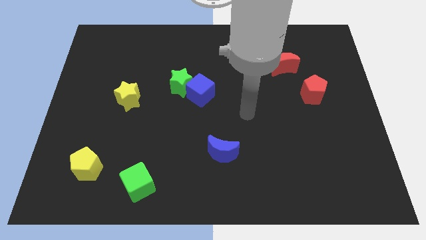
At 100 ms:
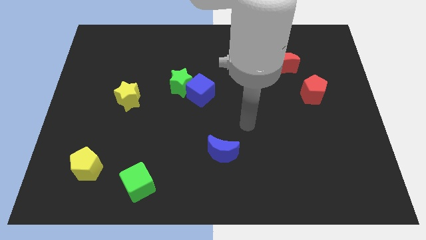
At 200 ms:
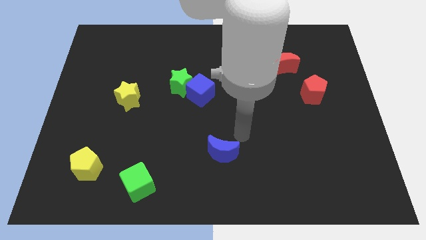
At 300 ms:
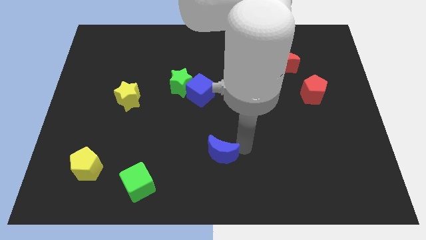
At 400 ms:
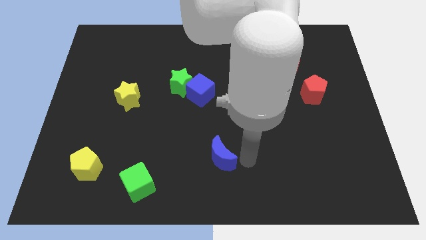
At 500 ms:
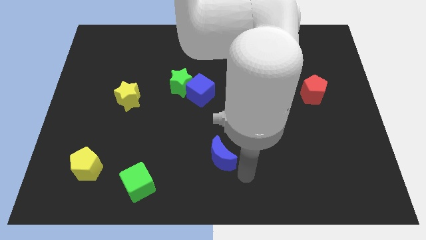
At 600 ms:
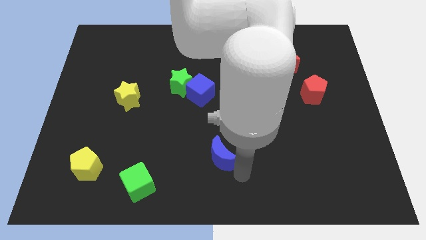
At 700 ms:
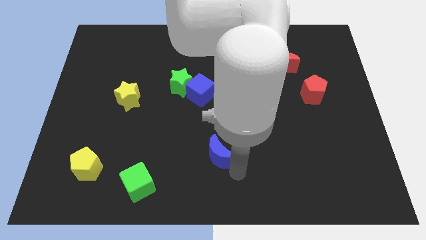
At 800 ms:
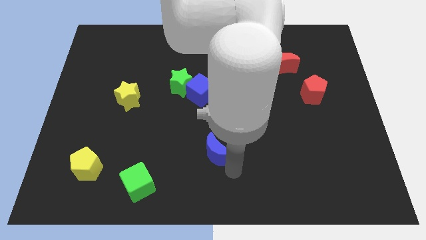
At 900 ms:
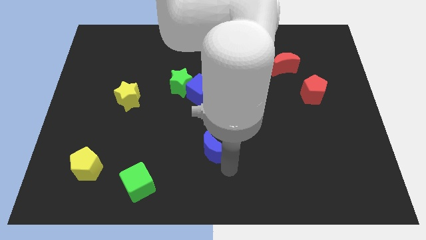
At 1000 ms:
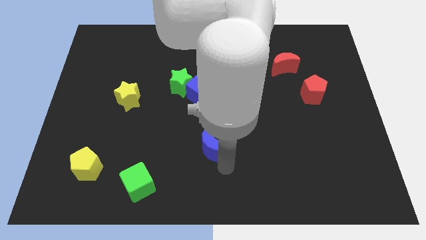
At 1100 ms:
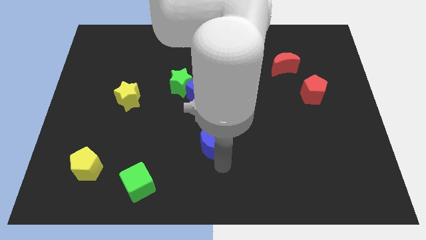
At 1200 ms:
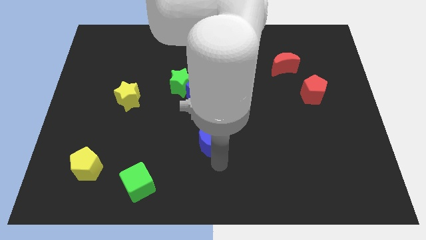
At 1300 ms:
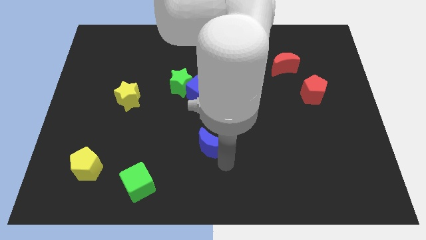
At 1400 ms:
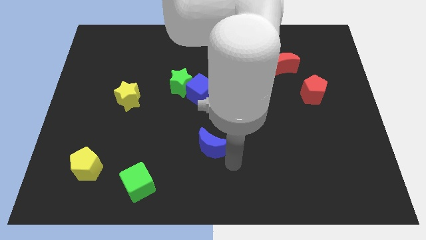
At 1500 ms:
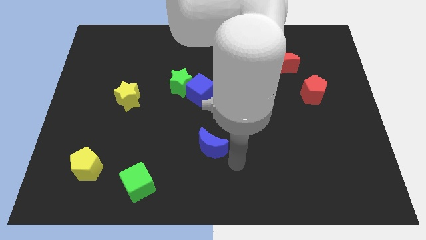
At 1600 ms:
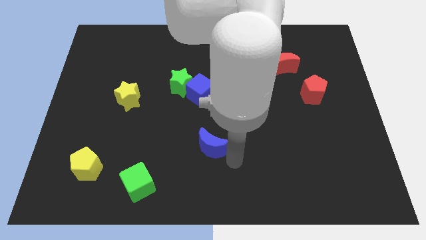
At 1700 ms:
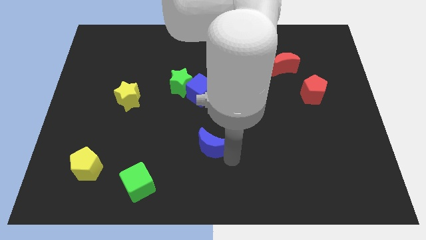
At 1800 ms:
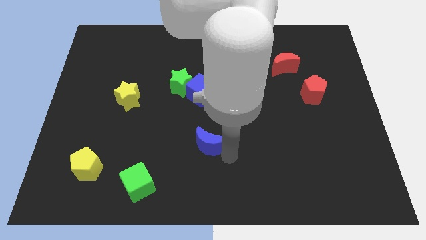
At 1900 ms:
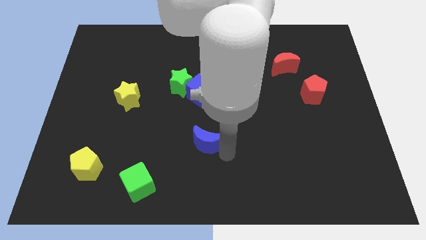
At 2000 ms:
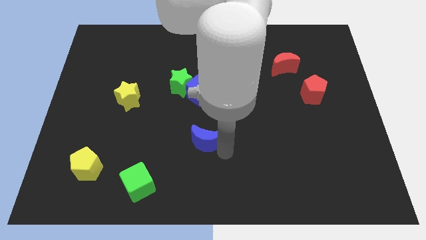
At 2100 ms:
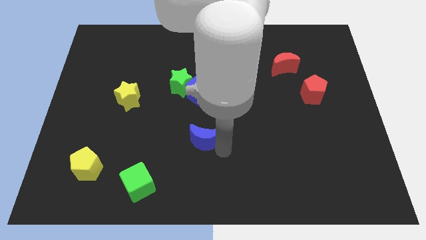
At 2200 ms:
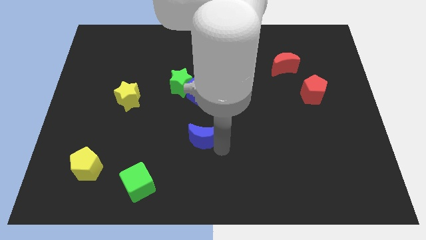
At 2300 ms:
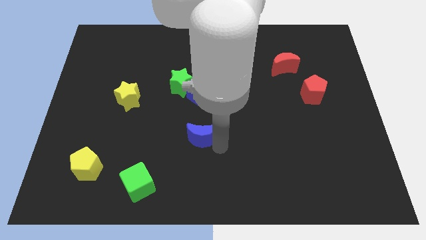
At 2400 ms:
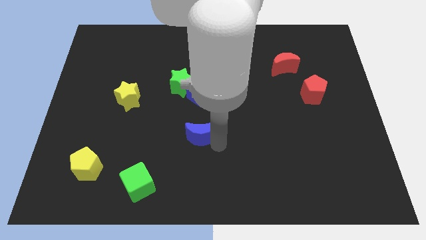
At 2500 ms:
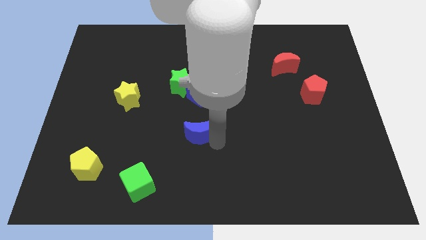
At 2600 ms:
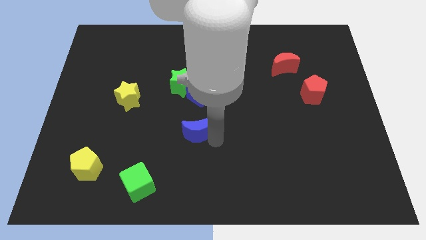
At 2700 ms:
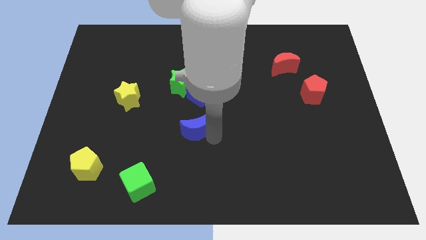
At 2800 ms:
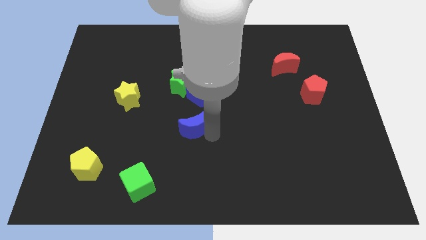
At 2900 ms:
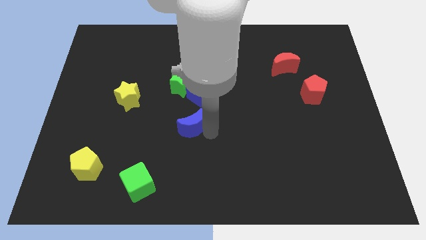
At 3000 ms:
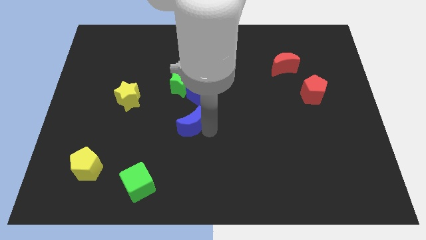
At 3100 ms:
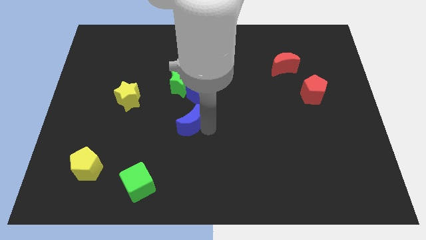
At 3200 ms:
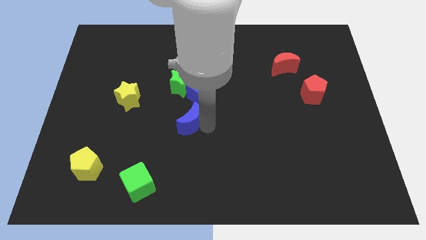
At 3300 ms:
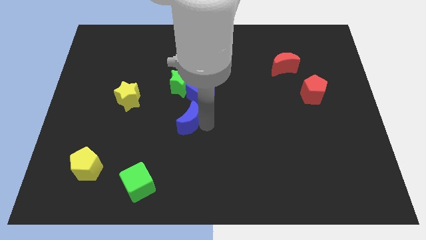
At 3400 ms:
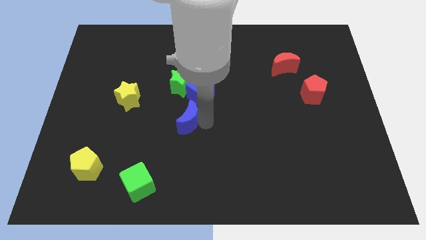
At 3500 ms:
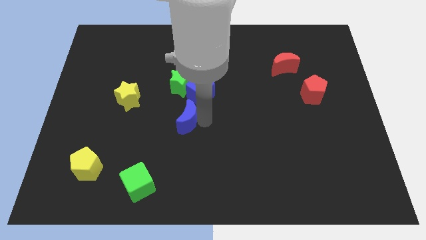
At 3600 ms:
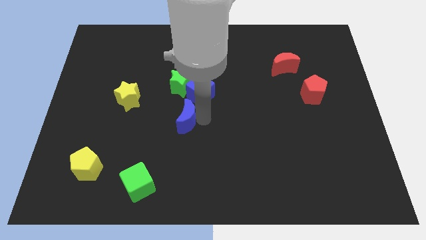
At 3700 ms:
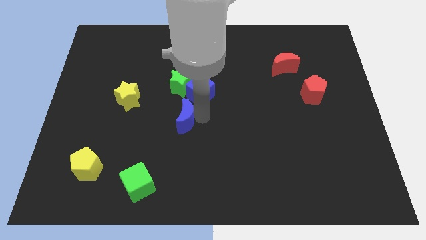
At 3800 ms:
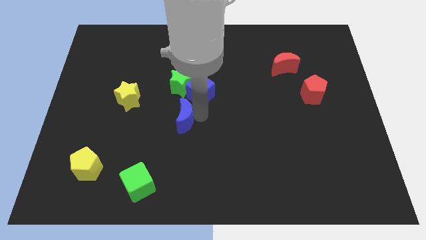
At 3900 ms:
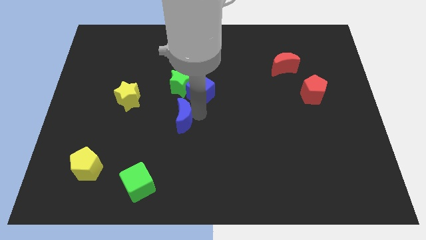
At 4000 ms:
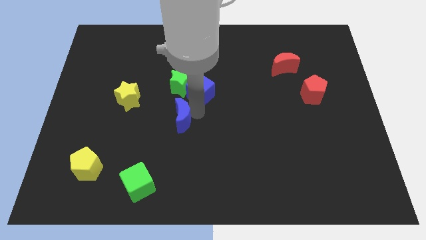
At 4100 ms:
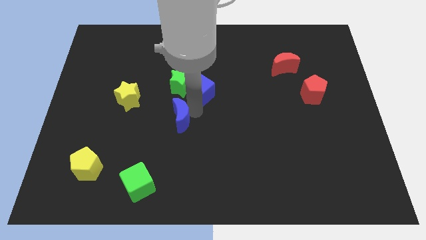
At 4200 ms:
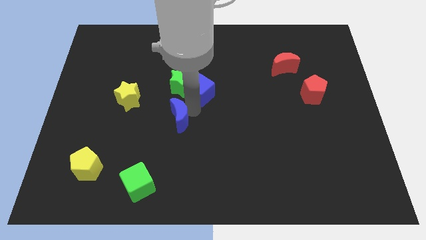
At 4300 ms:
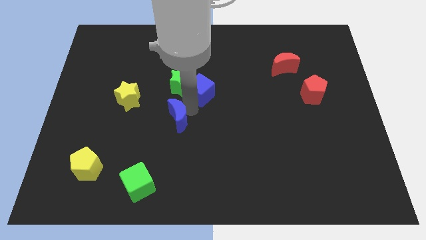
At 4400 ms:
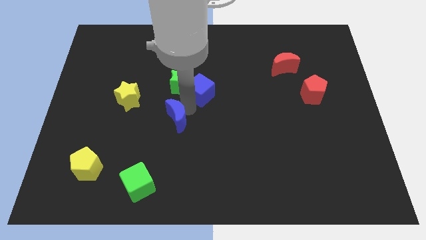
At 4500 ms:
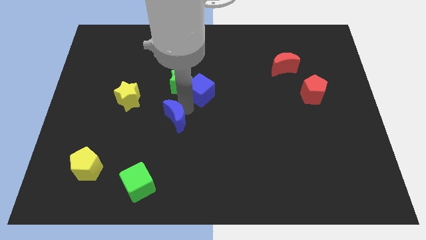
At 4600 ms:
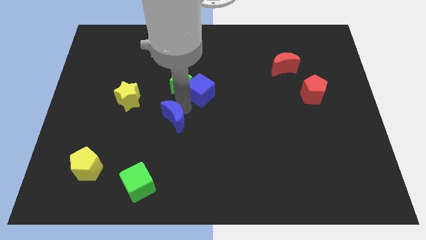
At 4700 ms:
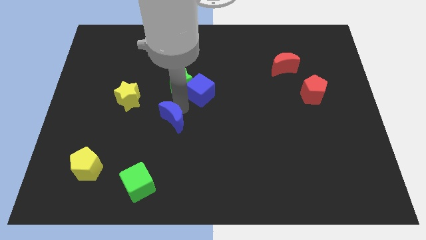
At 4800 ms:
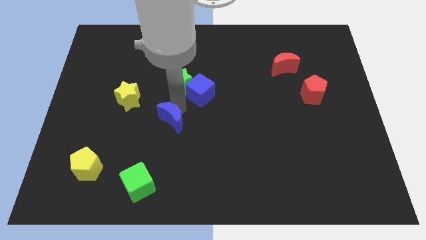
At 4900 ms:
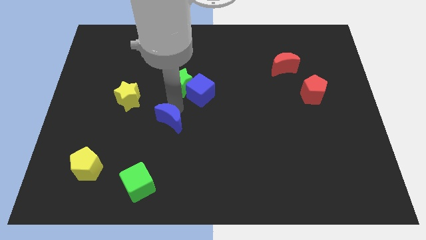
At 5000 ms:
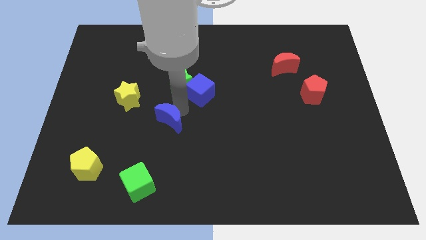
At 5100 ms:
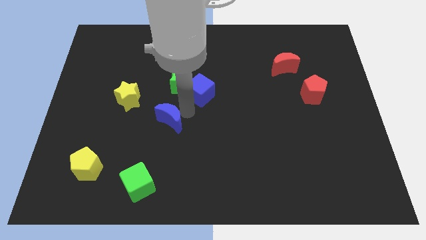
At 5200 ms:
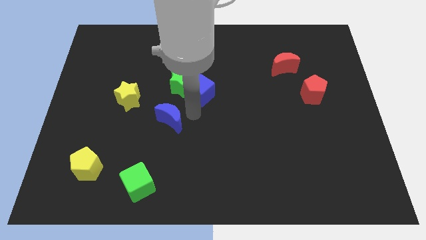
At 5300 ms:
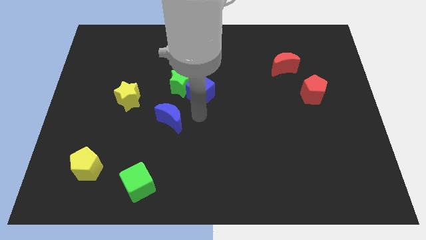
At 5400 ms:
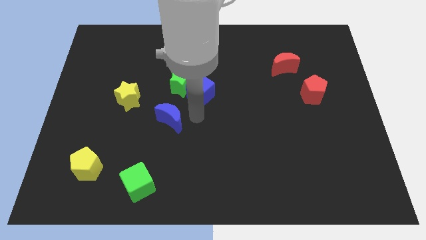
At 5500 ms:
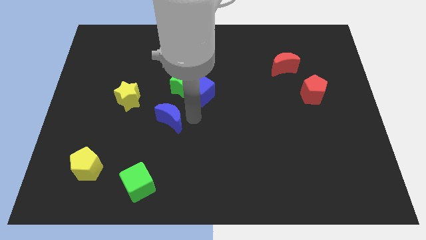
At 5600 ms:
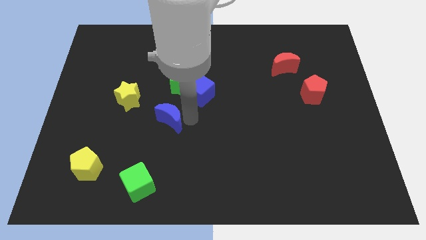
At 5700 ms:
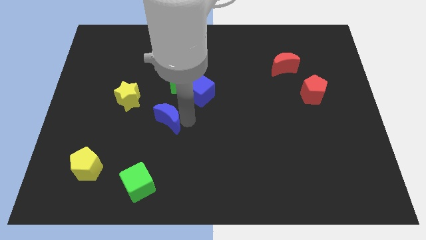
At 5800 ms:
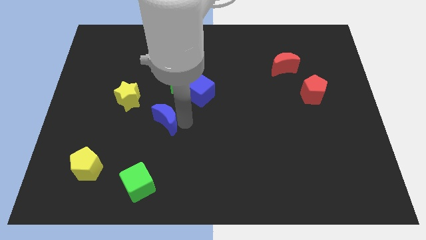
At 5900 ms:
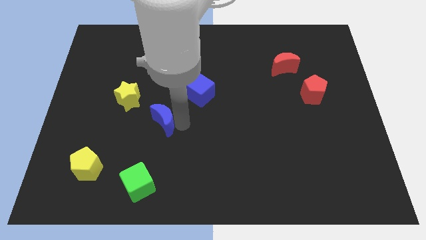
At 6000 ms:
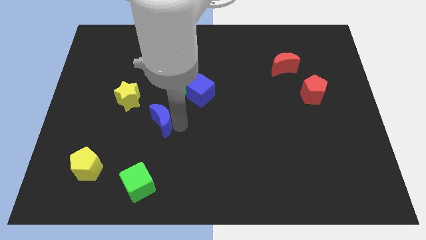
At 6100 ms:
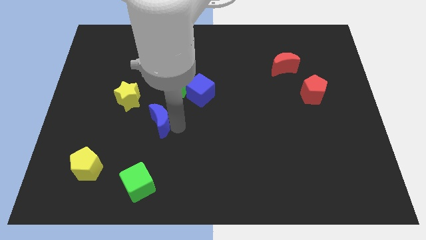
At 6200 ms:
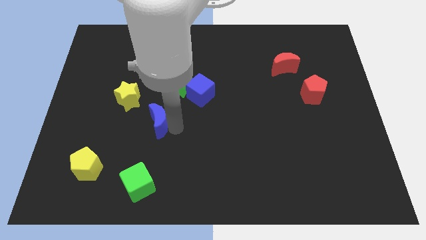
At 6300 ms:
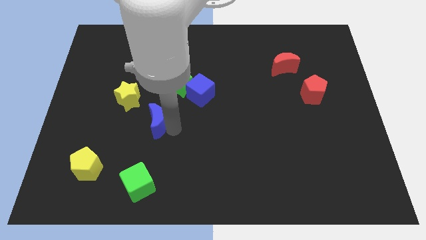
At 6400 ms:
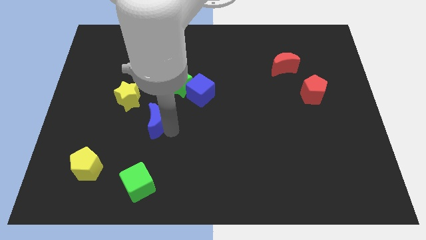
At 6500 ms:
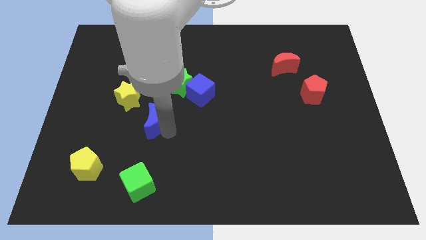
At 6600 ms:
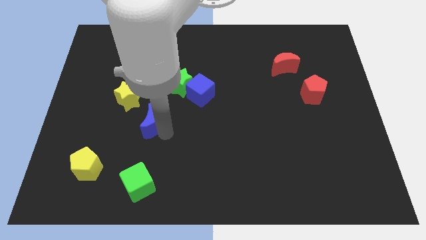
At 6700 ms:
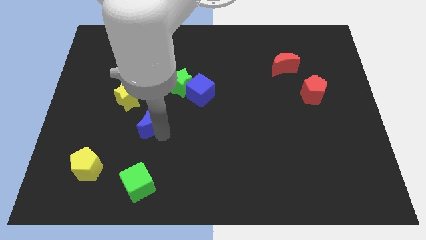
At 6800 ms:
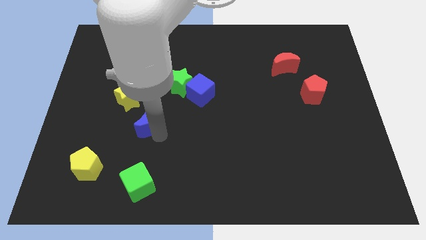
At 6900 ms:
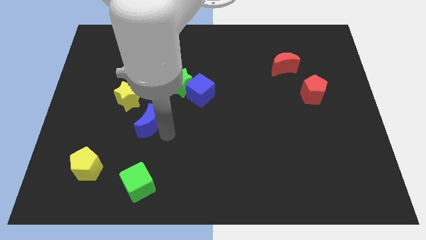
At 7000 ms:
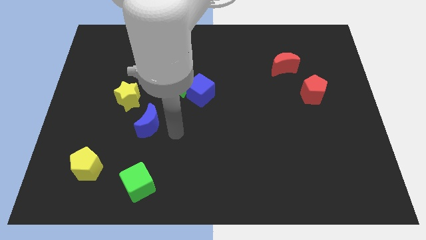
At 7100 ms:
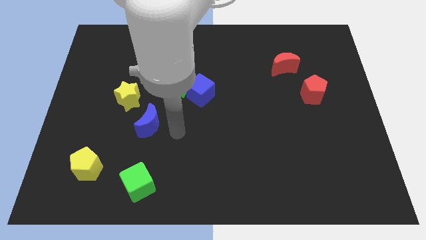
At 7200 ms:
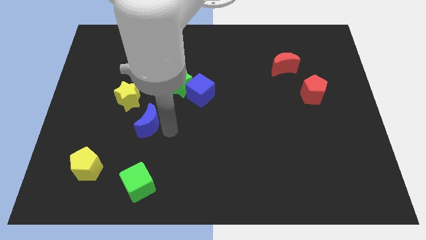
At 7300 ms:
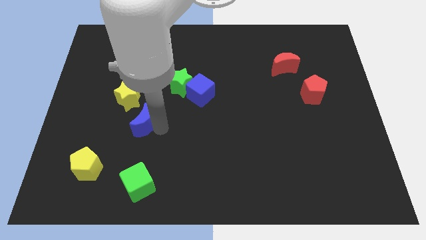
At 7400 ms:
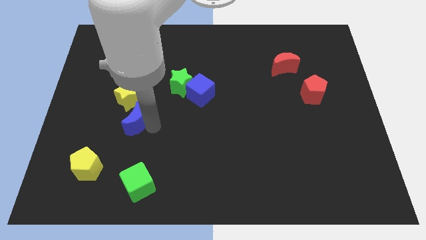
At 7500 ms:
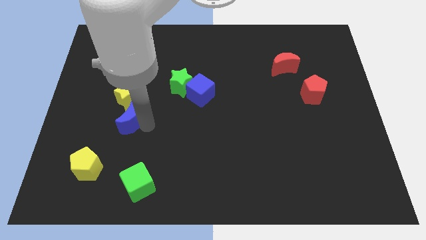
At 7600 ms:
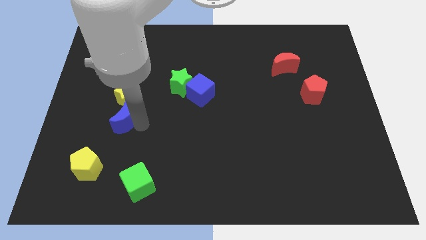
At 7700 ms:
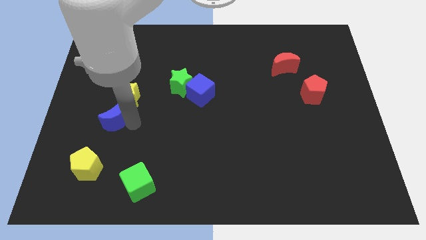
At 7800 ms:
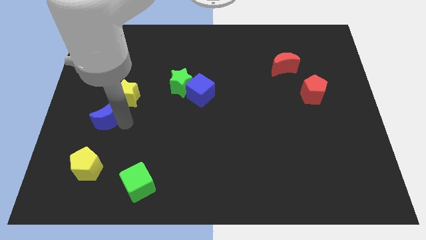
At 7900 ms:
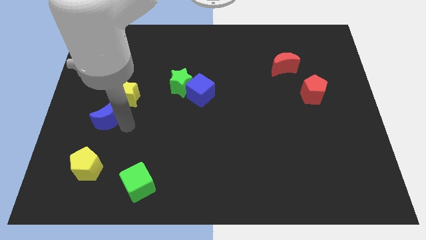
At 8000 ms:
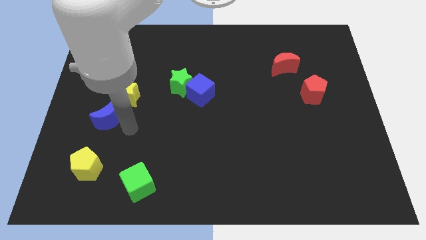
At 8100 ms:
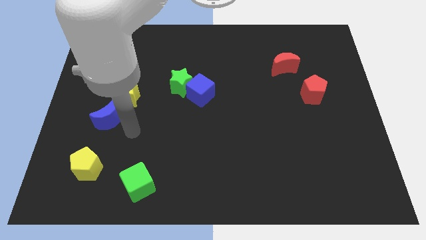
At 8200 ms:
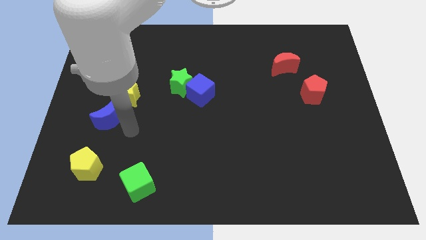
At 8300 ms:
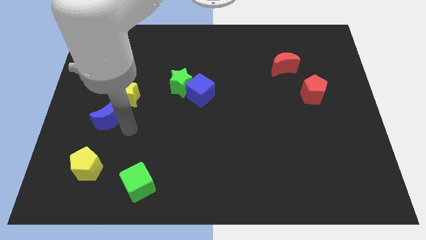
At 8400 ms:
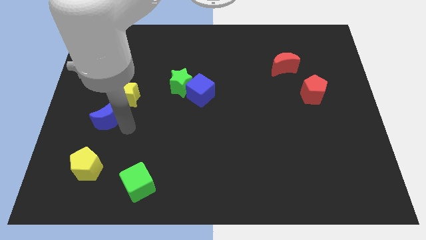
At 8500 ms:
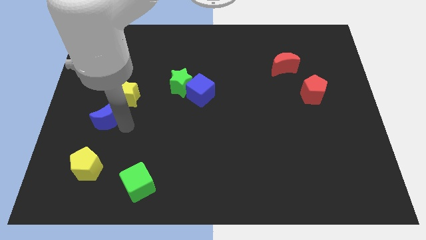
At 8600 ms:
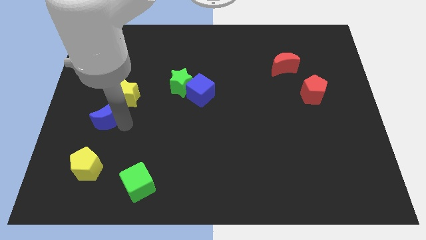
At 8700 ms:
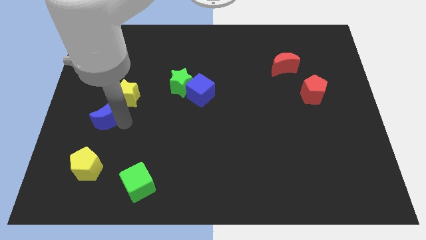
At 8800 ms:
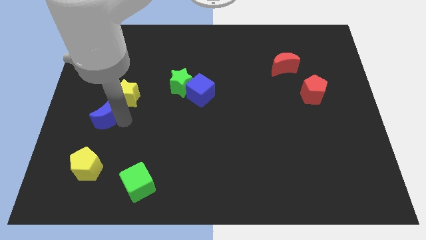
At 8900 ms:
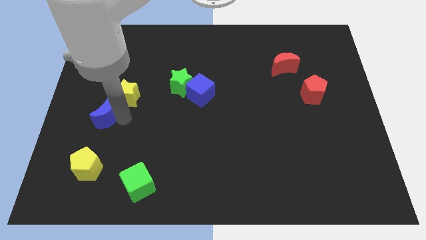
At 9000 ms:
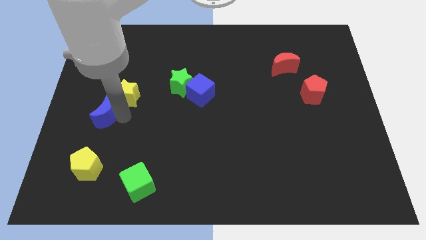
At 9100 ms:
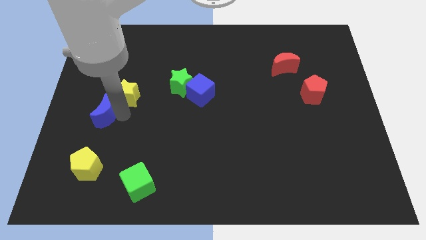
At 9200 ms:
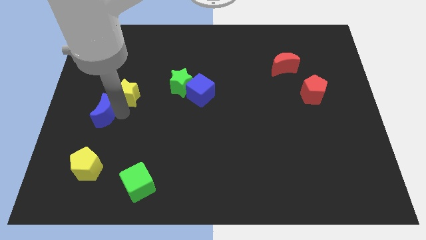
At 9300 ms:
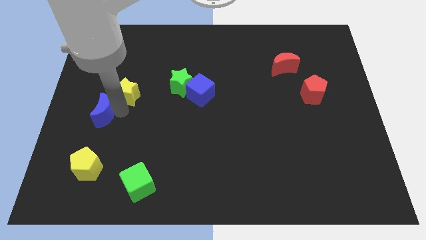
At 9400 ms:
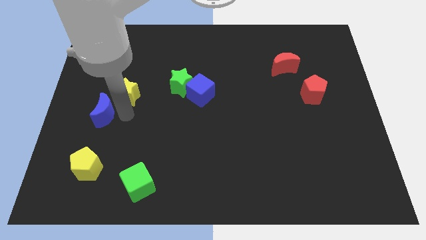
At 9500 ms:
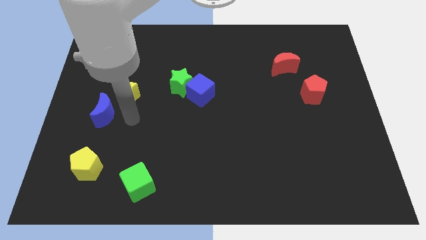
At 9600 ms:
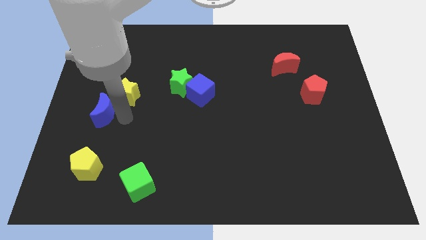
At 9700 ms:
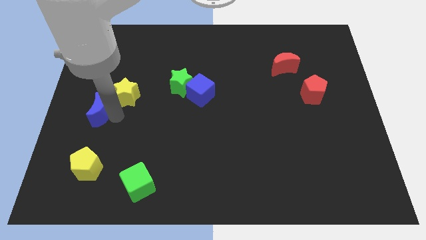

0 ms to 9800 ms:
put the blue moon to the left side
